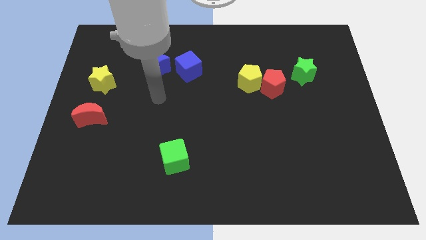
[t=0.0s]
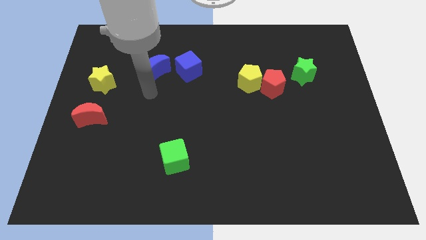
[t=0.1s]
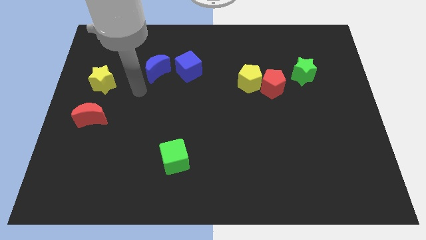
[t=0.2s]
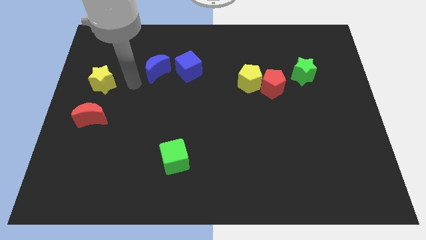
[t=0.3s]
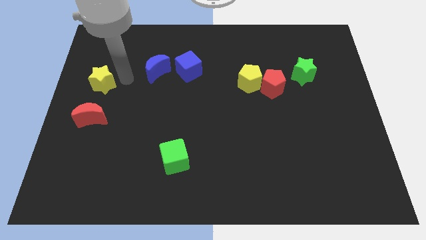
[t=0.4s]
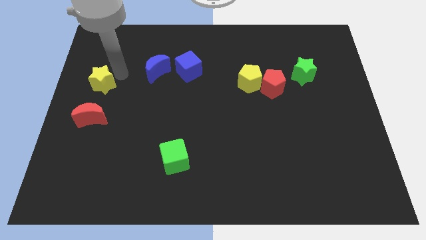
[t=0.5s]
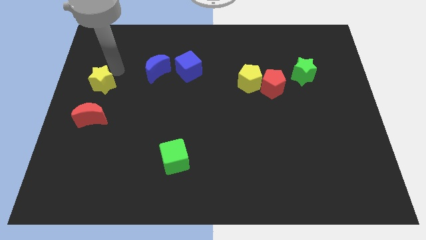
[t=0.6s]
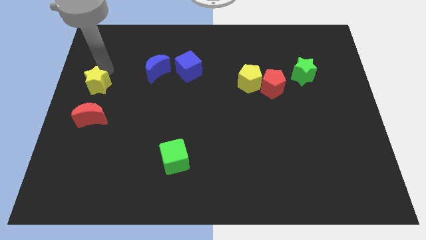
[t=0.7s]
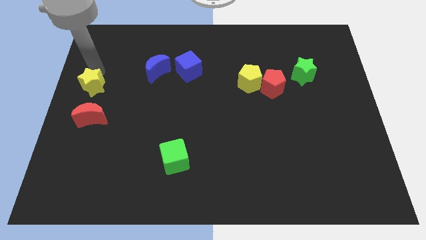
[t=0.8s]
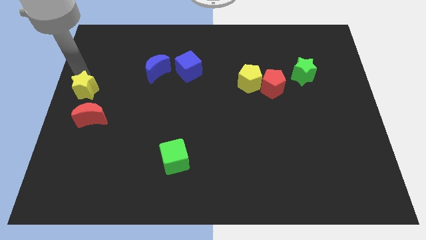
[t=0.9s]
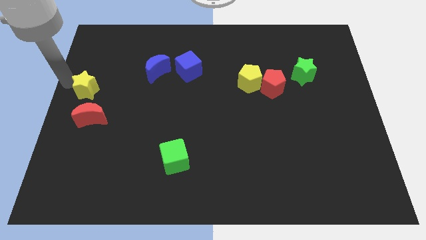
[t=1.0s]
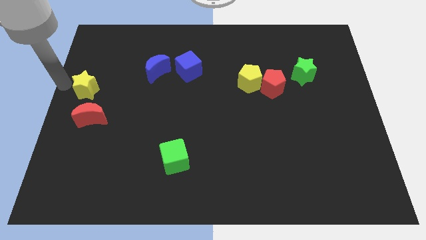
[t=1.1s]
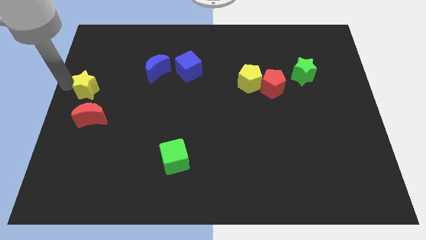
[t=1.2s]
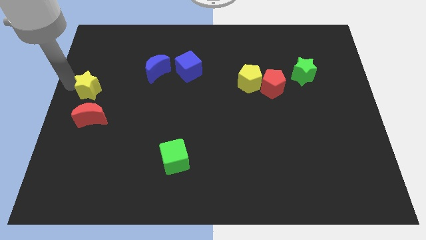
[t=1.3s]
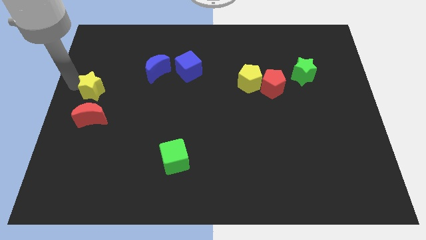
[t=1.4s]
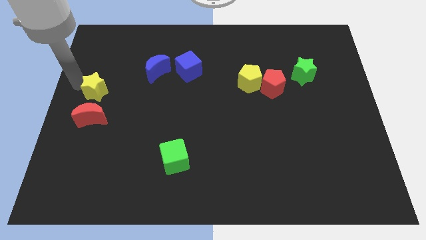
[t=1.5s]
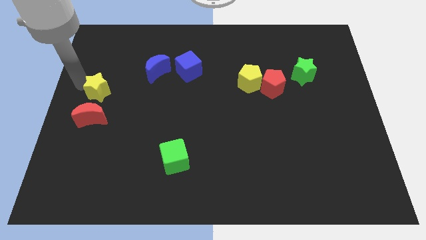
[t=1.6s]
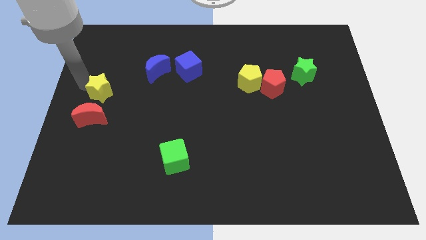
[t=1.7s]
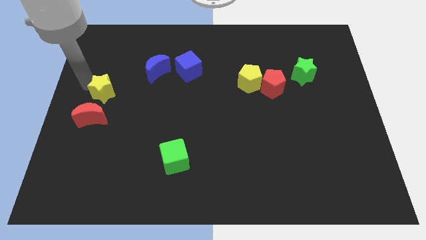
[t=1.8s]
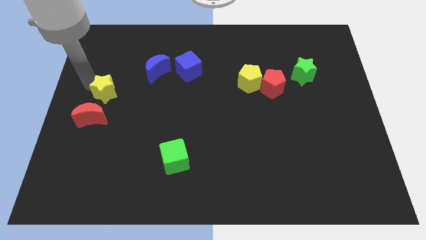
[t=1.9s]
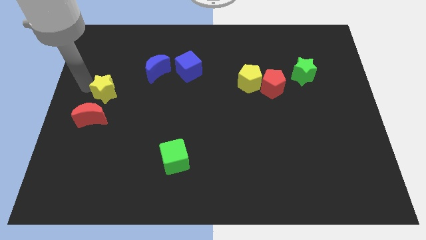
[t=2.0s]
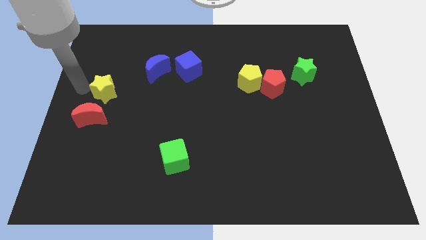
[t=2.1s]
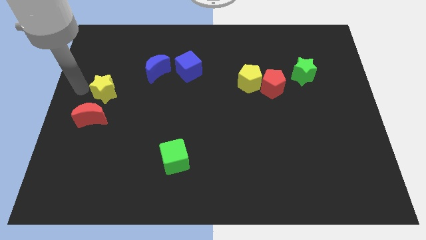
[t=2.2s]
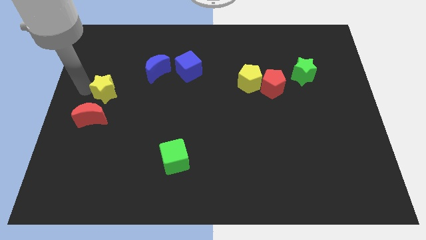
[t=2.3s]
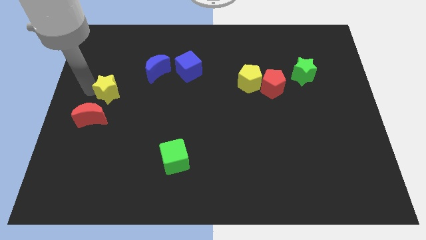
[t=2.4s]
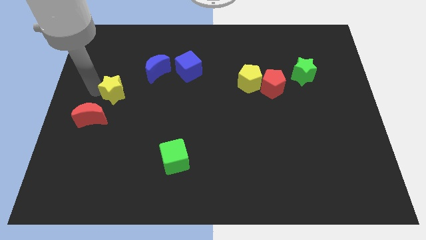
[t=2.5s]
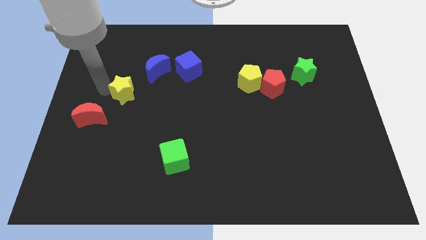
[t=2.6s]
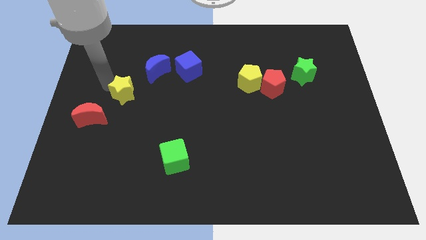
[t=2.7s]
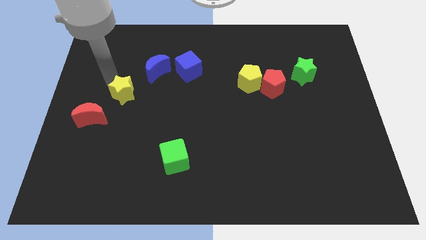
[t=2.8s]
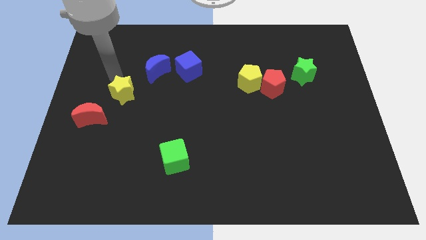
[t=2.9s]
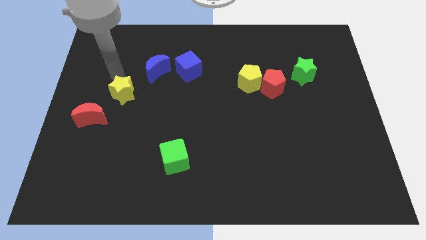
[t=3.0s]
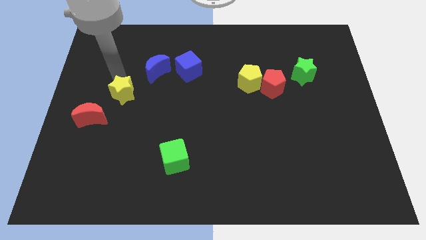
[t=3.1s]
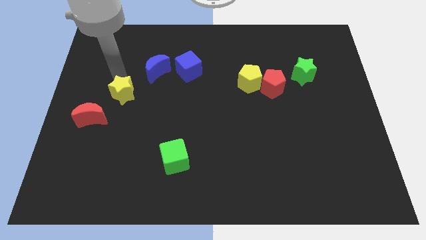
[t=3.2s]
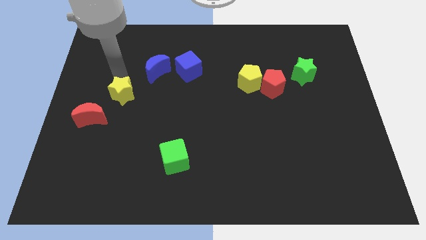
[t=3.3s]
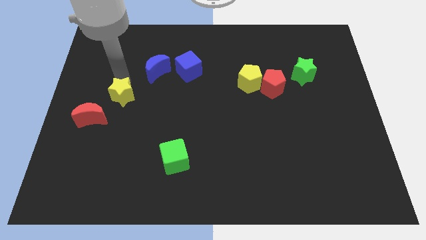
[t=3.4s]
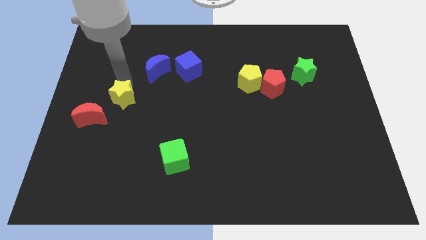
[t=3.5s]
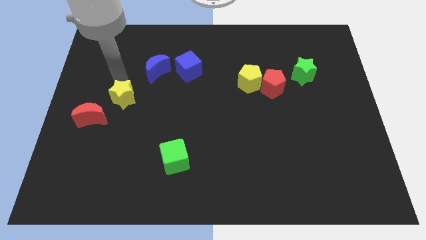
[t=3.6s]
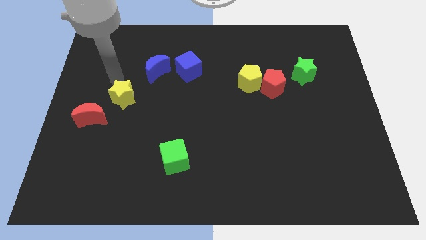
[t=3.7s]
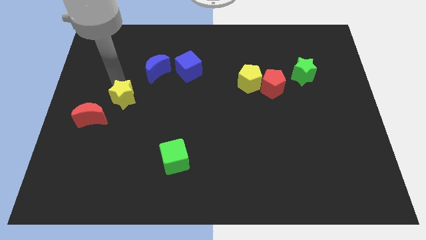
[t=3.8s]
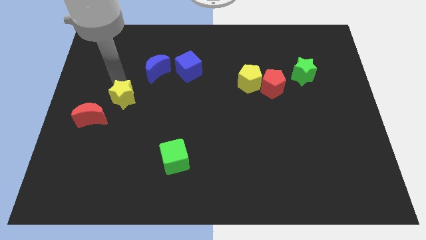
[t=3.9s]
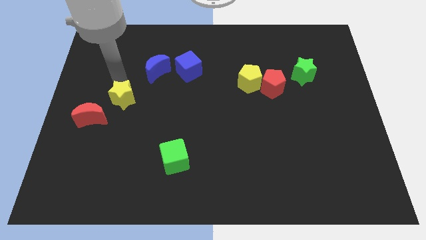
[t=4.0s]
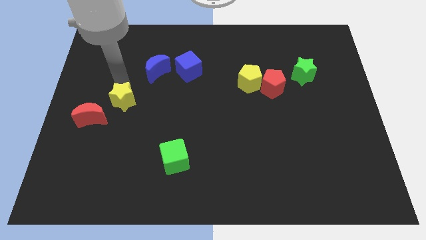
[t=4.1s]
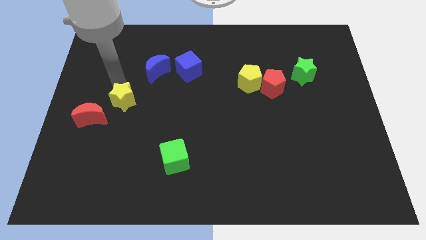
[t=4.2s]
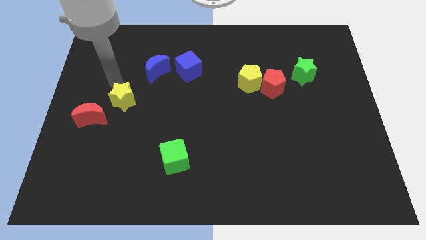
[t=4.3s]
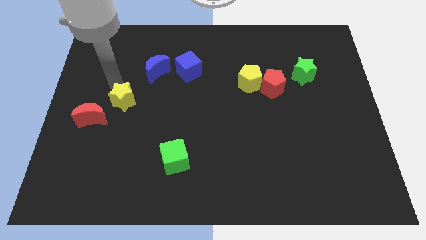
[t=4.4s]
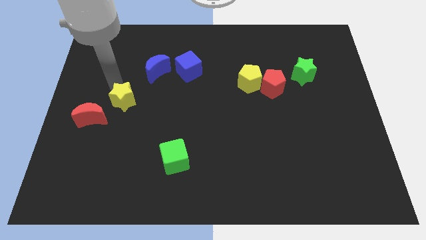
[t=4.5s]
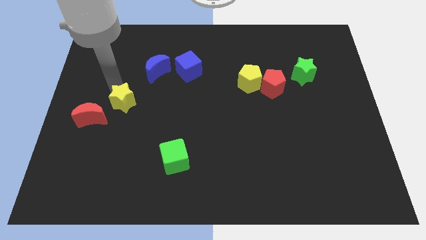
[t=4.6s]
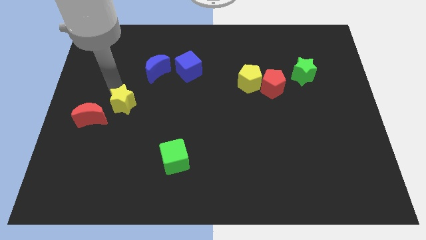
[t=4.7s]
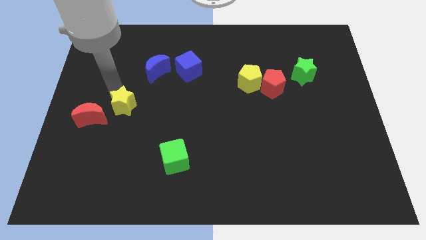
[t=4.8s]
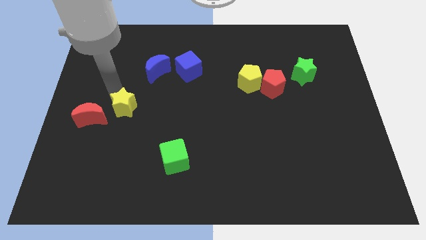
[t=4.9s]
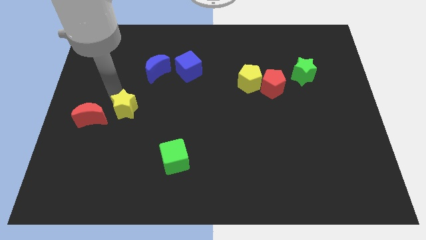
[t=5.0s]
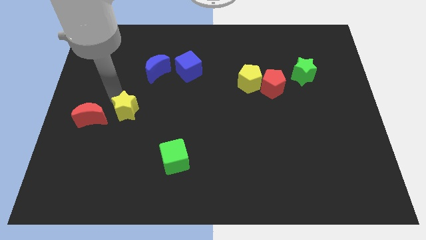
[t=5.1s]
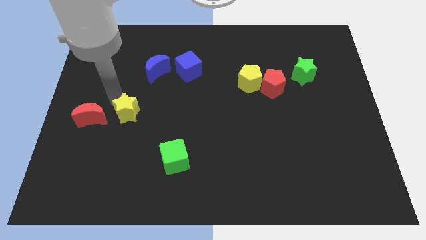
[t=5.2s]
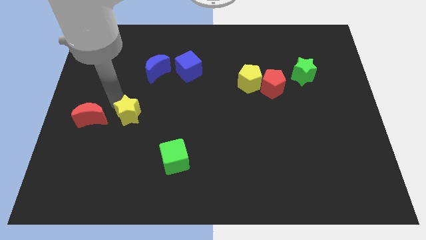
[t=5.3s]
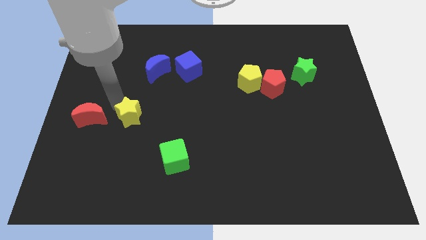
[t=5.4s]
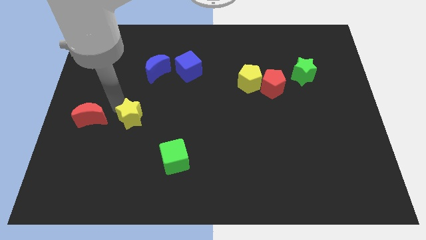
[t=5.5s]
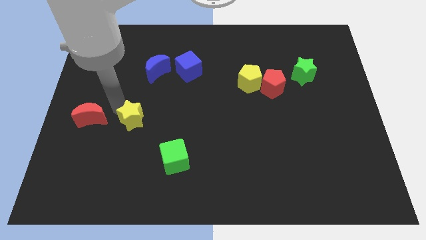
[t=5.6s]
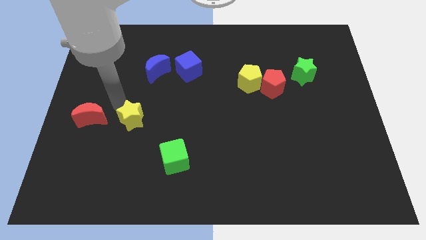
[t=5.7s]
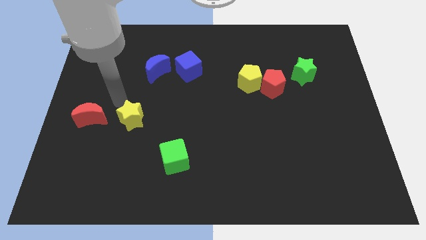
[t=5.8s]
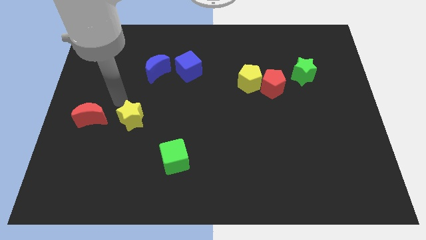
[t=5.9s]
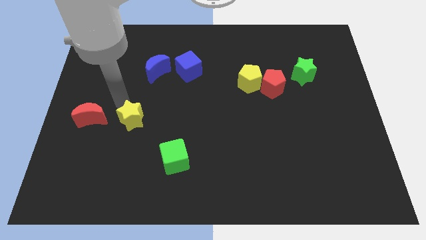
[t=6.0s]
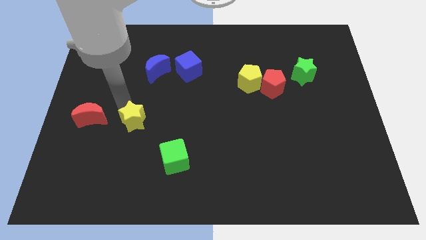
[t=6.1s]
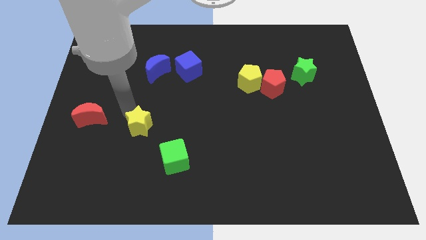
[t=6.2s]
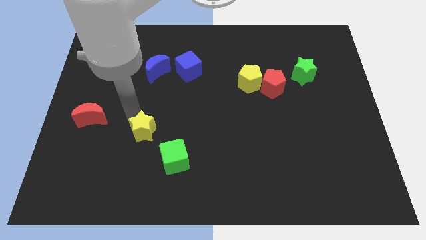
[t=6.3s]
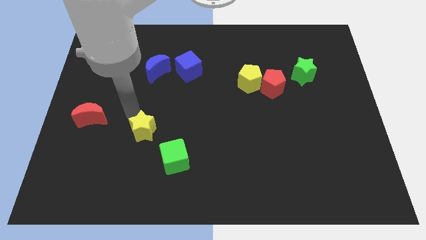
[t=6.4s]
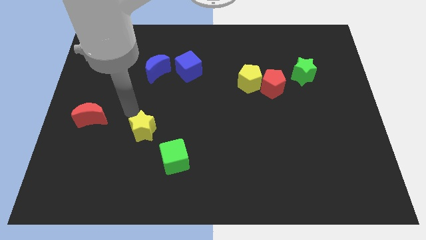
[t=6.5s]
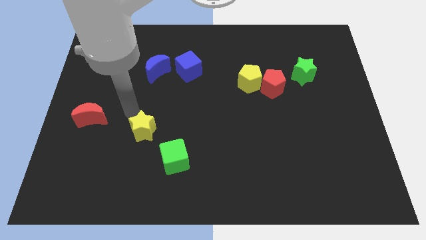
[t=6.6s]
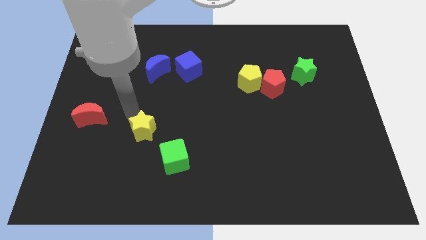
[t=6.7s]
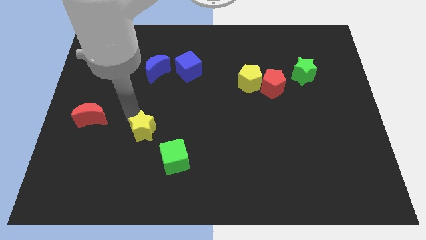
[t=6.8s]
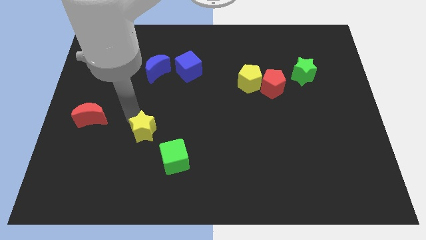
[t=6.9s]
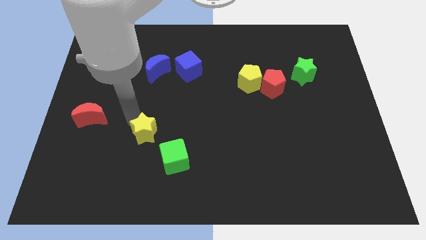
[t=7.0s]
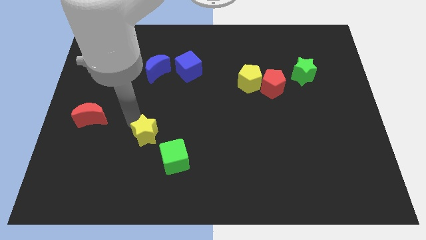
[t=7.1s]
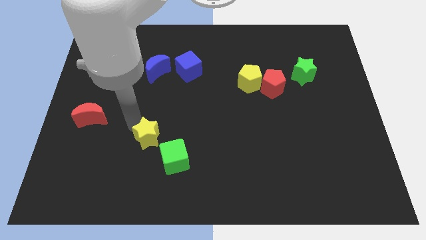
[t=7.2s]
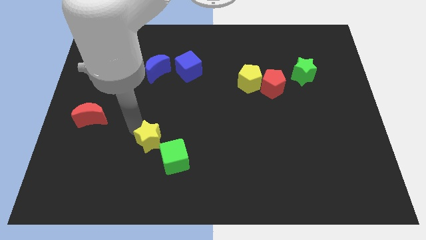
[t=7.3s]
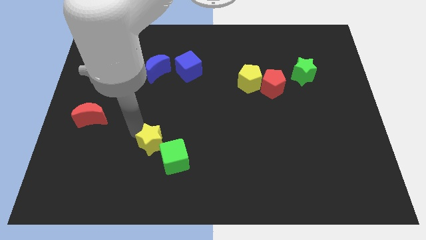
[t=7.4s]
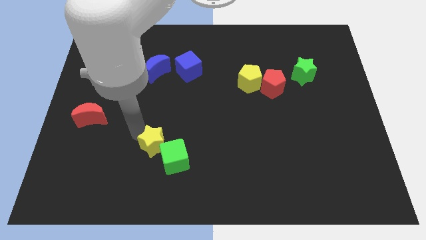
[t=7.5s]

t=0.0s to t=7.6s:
slide the yellow star next to the green cube

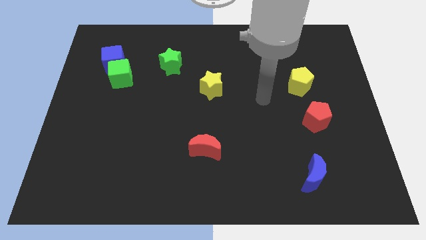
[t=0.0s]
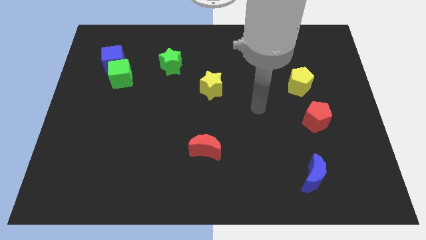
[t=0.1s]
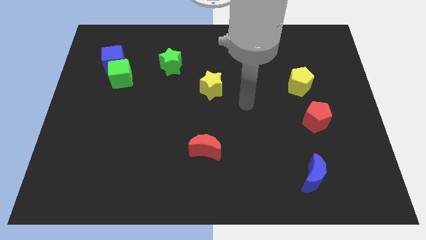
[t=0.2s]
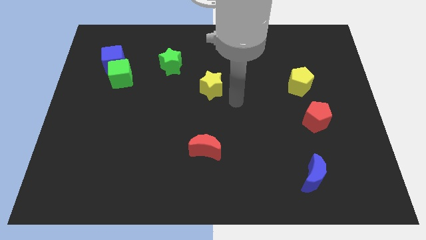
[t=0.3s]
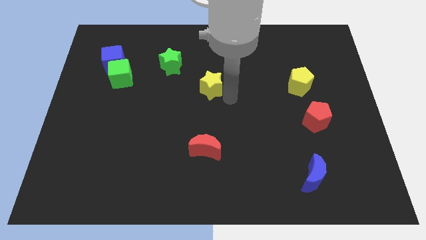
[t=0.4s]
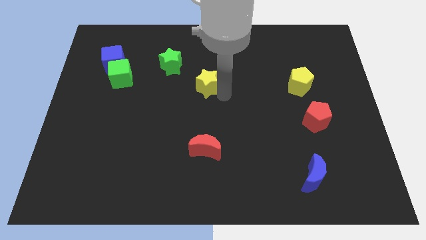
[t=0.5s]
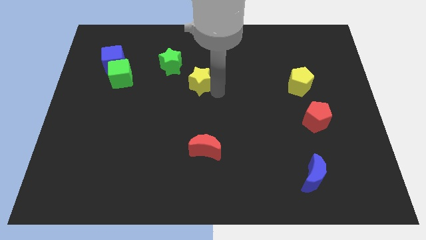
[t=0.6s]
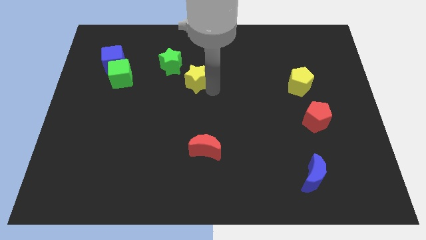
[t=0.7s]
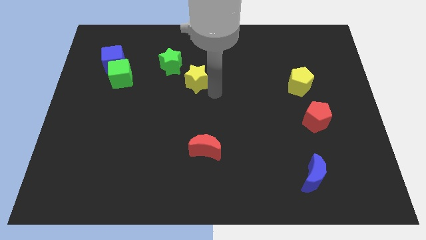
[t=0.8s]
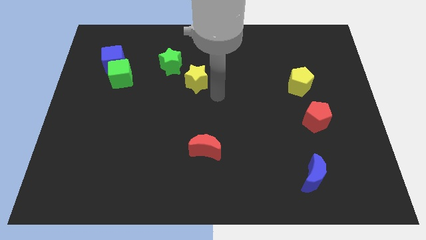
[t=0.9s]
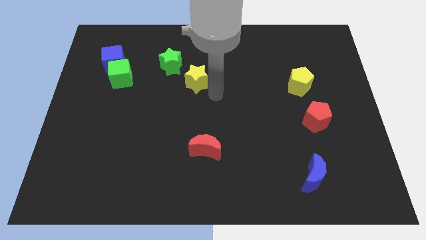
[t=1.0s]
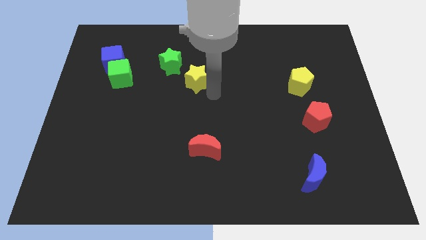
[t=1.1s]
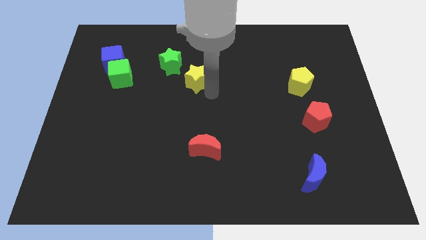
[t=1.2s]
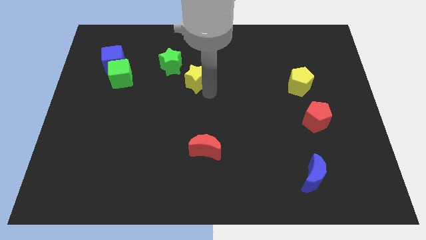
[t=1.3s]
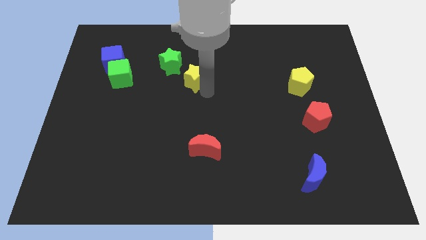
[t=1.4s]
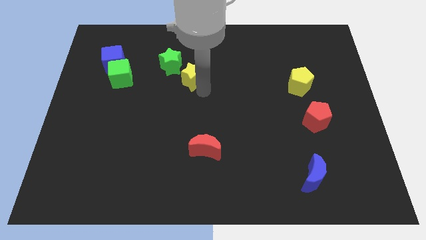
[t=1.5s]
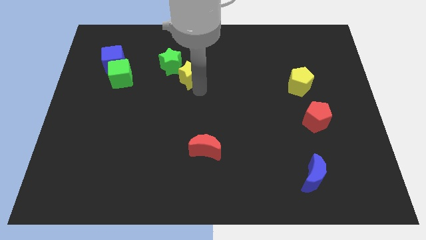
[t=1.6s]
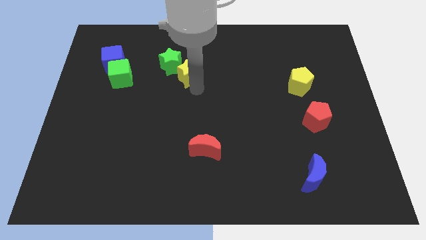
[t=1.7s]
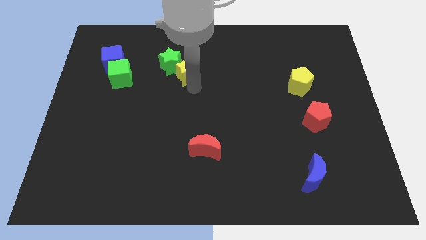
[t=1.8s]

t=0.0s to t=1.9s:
slide the yellow star next to the green star
